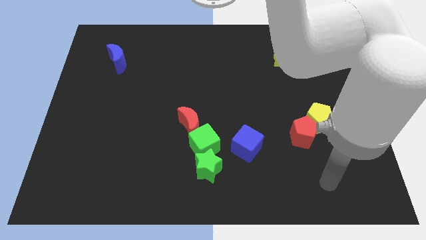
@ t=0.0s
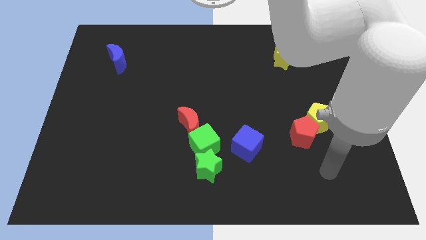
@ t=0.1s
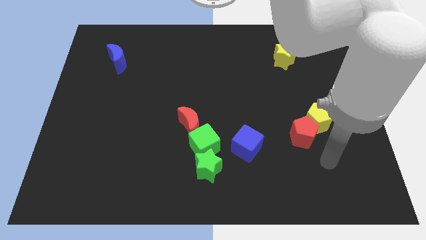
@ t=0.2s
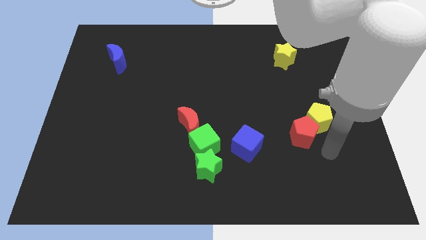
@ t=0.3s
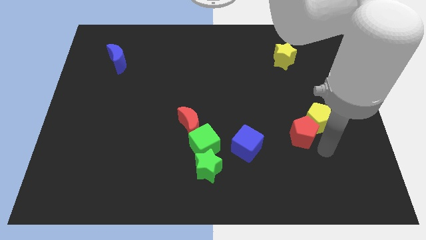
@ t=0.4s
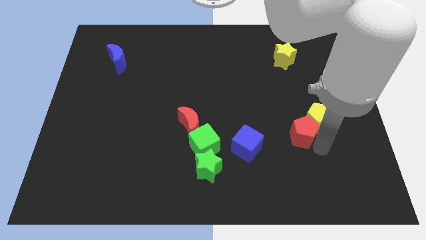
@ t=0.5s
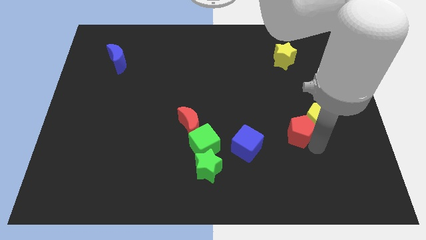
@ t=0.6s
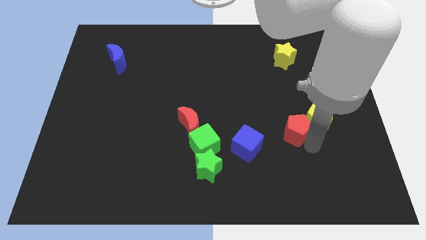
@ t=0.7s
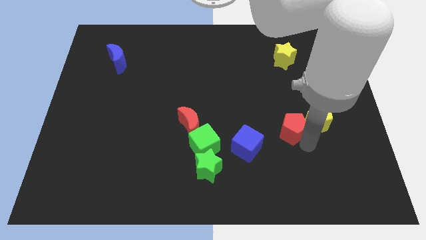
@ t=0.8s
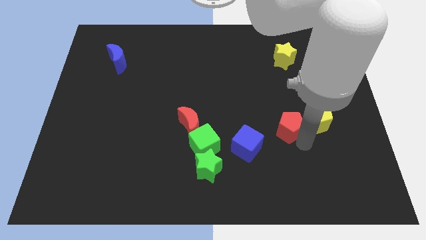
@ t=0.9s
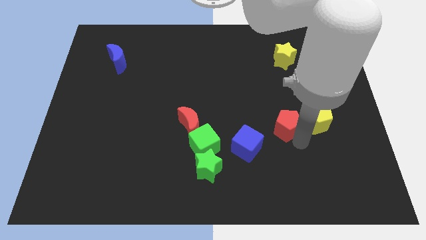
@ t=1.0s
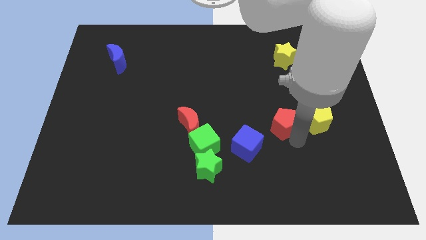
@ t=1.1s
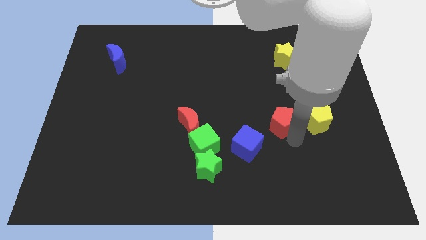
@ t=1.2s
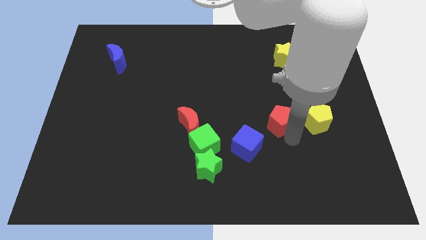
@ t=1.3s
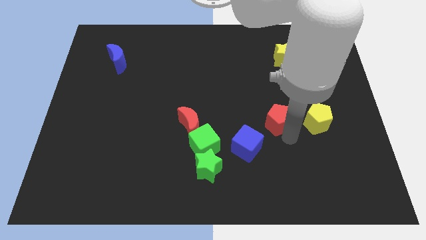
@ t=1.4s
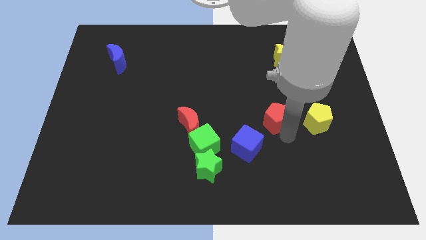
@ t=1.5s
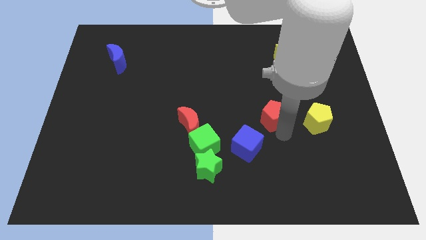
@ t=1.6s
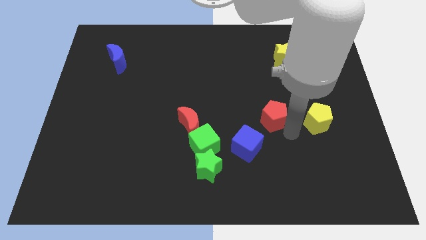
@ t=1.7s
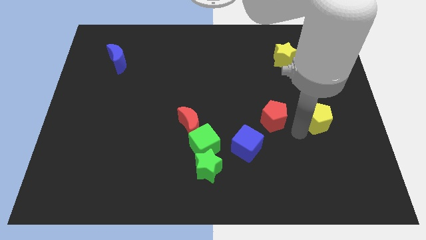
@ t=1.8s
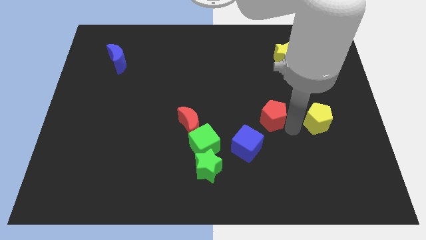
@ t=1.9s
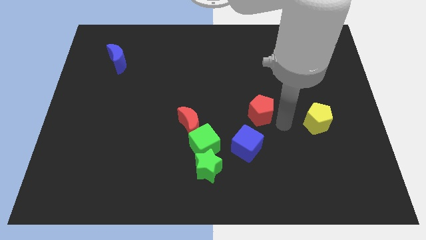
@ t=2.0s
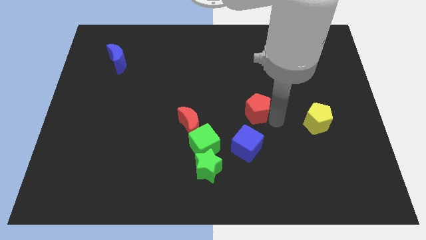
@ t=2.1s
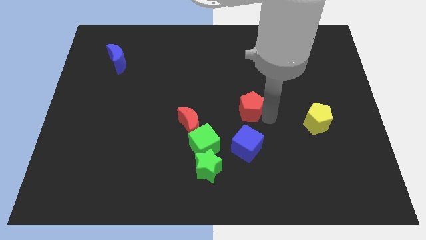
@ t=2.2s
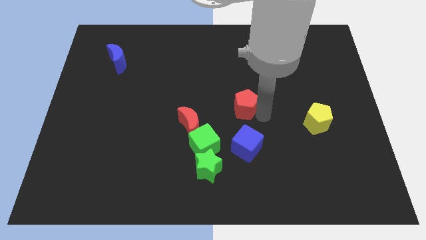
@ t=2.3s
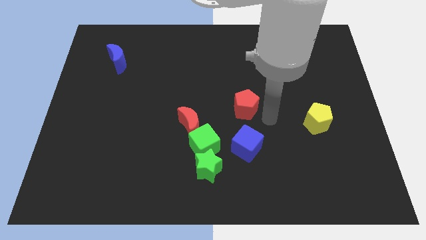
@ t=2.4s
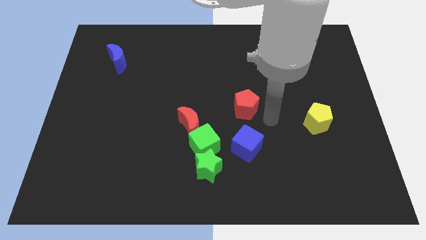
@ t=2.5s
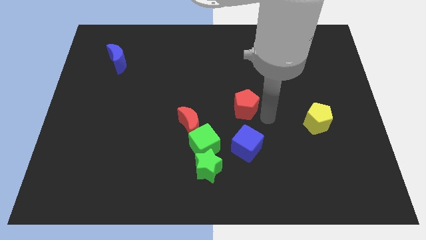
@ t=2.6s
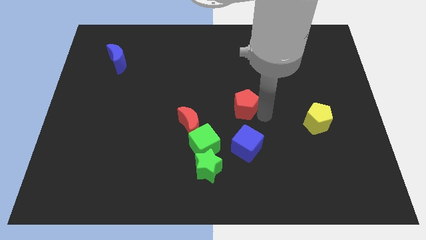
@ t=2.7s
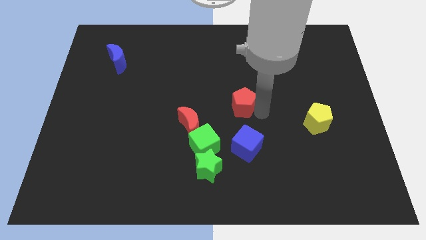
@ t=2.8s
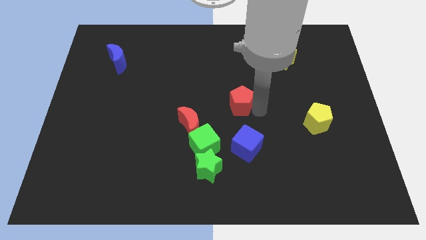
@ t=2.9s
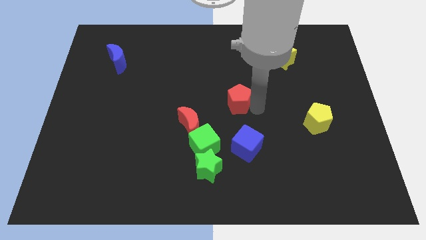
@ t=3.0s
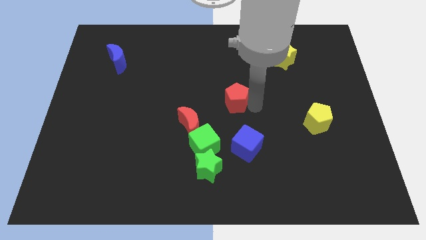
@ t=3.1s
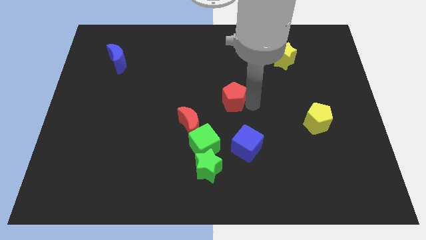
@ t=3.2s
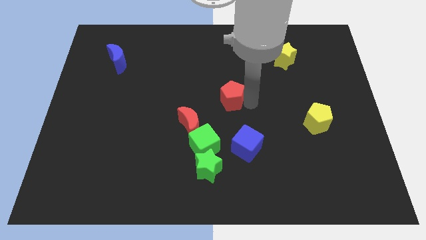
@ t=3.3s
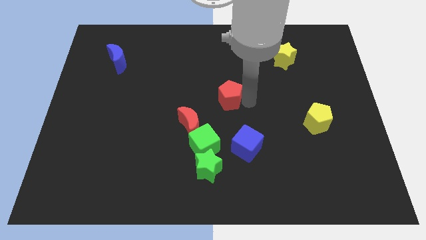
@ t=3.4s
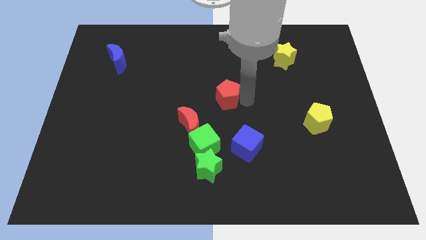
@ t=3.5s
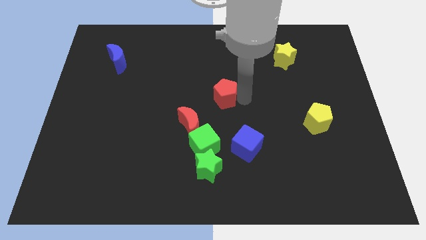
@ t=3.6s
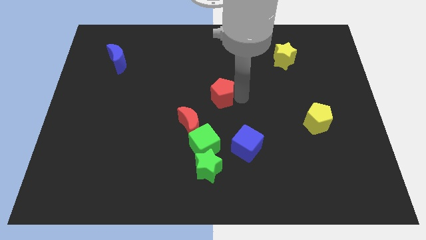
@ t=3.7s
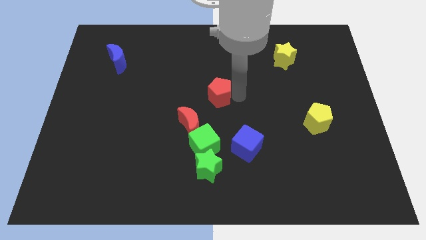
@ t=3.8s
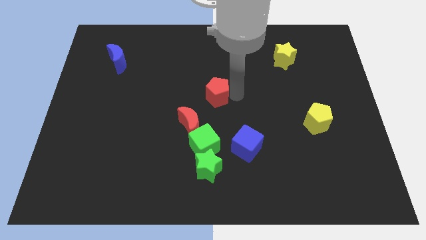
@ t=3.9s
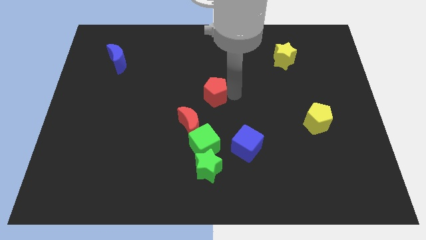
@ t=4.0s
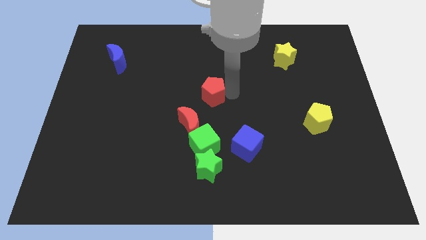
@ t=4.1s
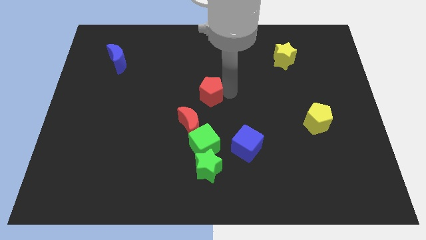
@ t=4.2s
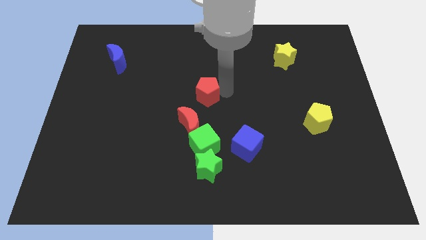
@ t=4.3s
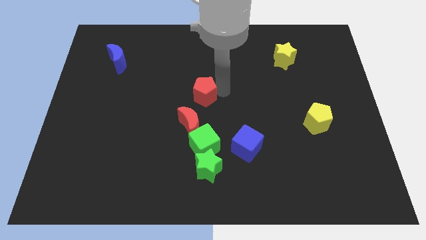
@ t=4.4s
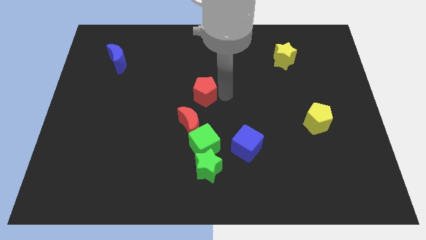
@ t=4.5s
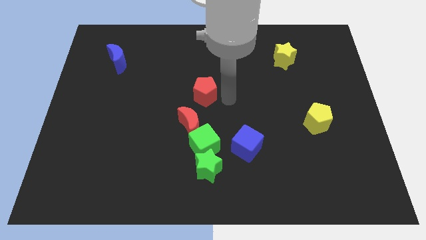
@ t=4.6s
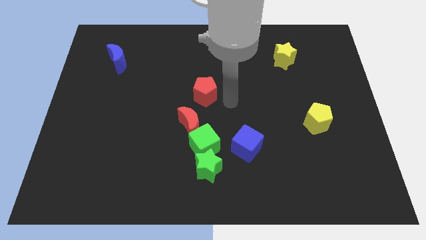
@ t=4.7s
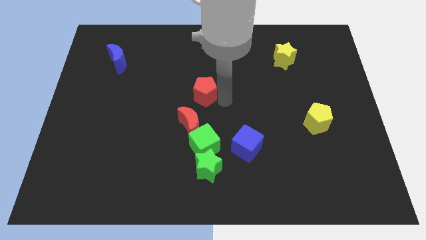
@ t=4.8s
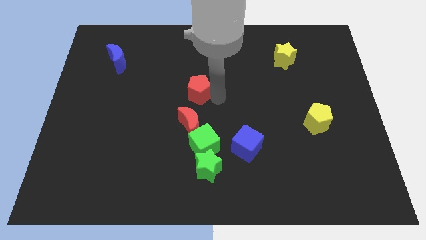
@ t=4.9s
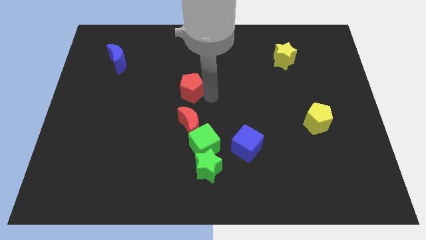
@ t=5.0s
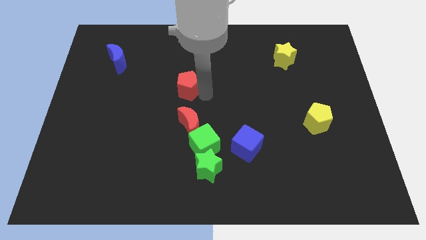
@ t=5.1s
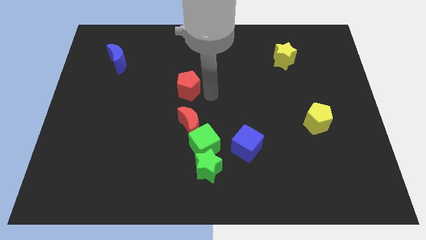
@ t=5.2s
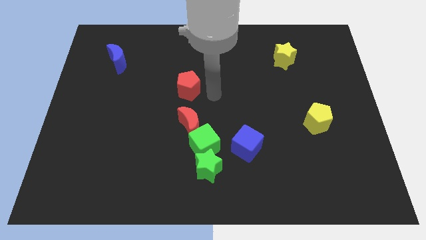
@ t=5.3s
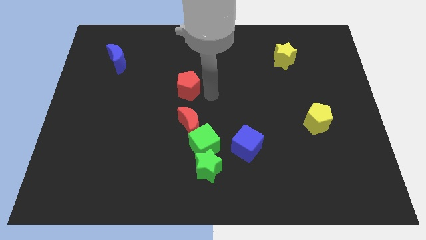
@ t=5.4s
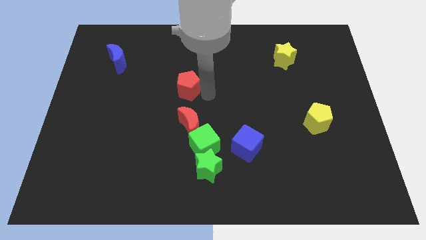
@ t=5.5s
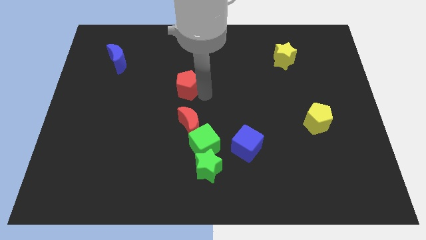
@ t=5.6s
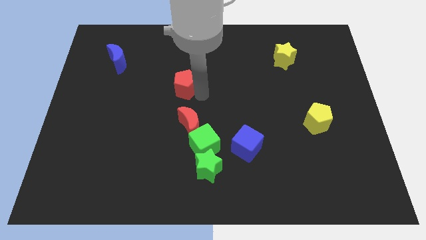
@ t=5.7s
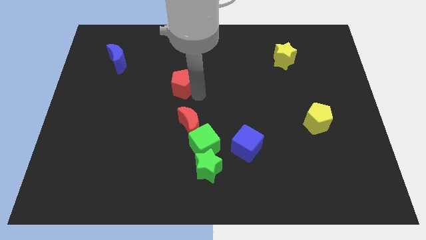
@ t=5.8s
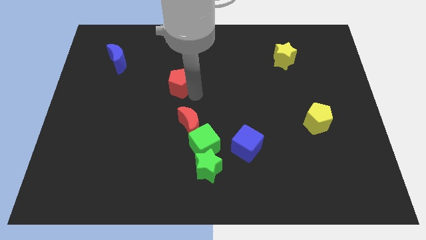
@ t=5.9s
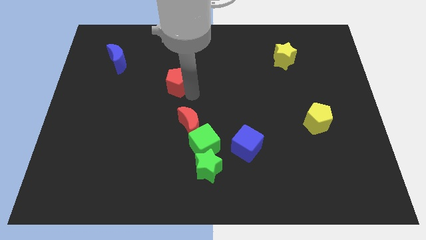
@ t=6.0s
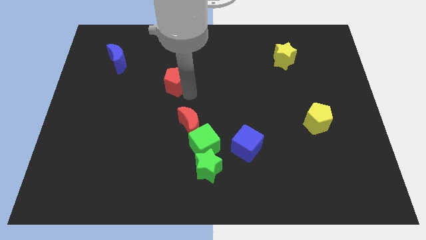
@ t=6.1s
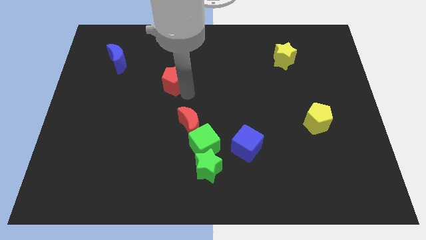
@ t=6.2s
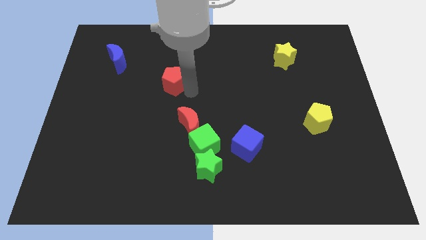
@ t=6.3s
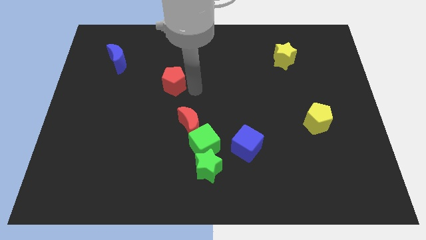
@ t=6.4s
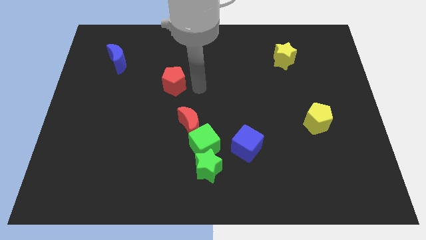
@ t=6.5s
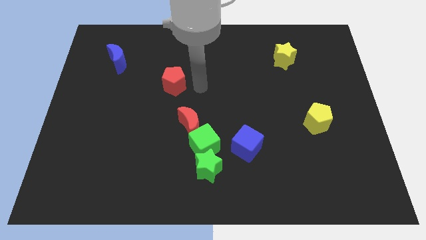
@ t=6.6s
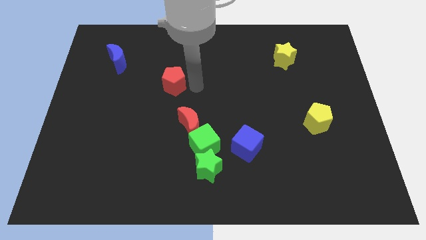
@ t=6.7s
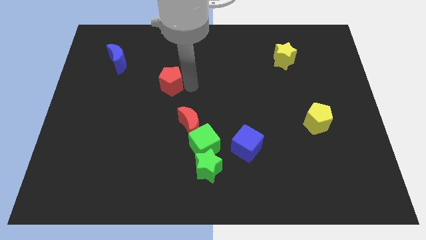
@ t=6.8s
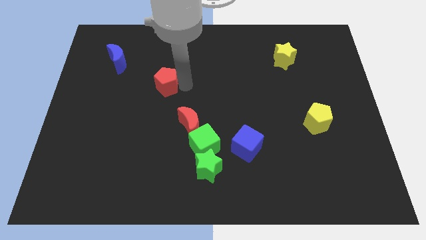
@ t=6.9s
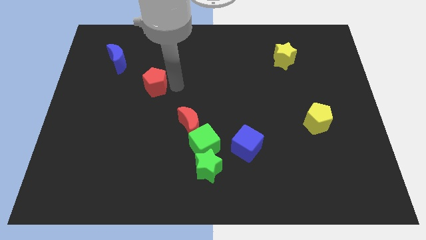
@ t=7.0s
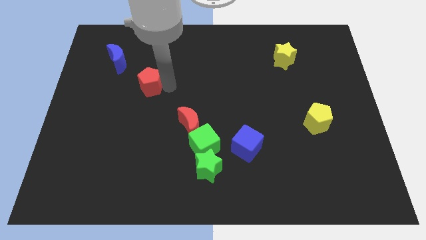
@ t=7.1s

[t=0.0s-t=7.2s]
push the red pentagon diagonally down and to the right of the blue moon
